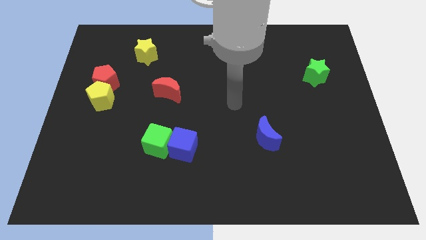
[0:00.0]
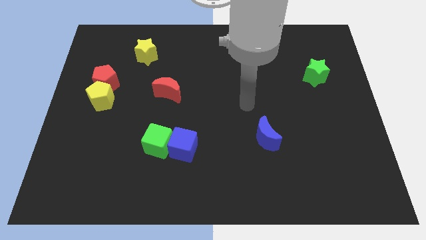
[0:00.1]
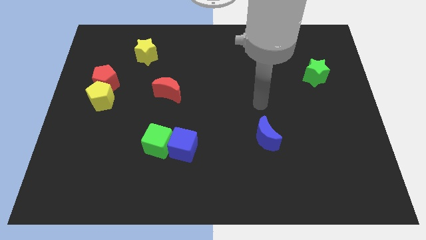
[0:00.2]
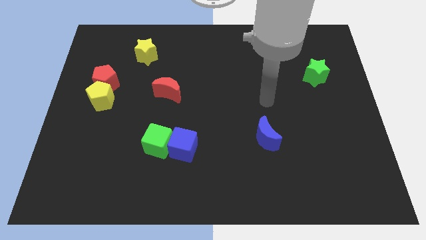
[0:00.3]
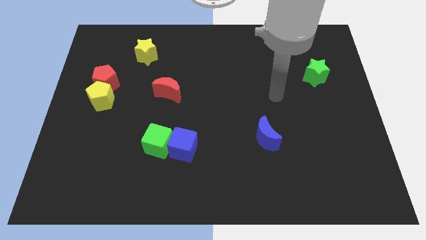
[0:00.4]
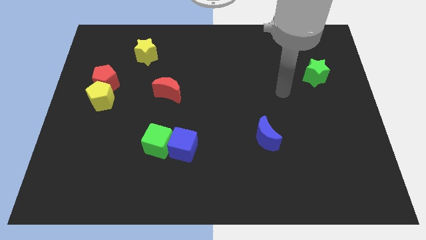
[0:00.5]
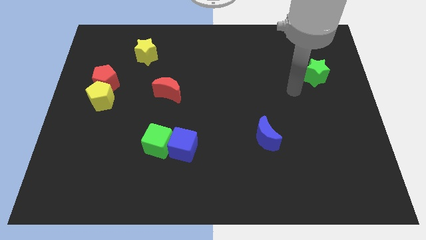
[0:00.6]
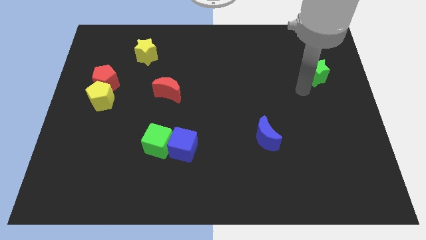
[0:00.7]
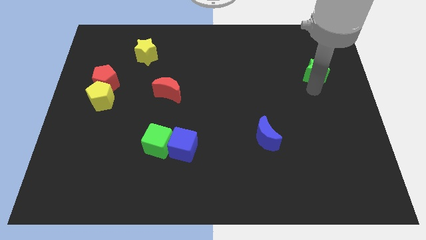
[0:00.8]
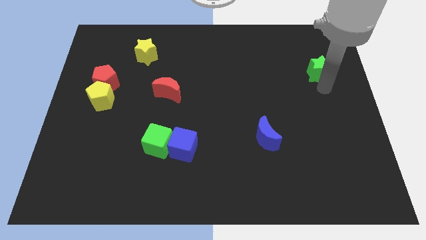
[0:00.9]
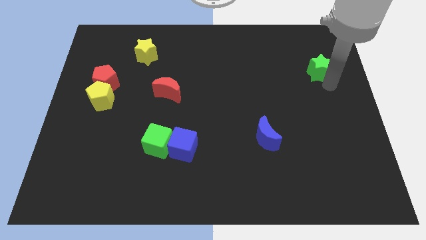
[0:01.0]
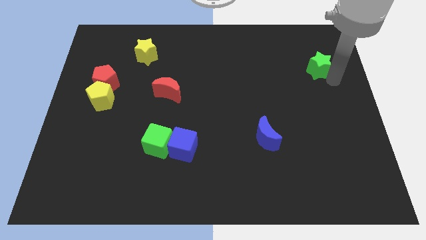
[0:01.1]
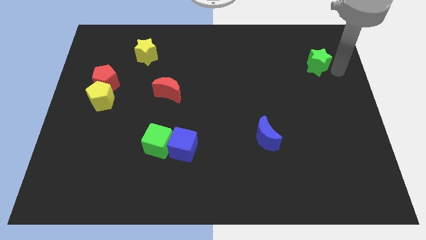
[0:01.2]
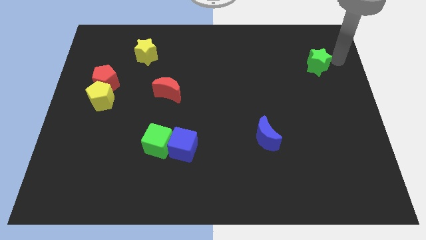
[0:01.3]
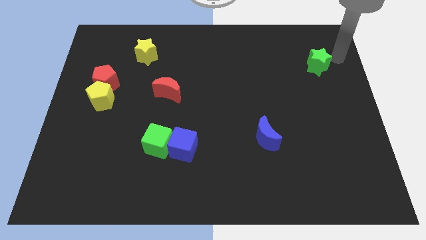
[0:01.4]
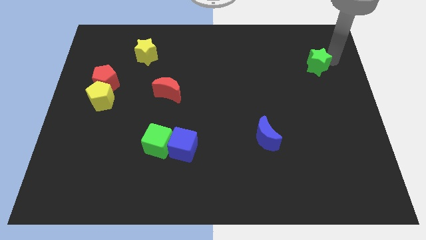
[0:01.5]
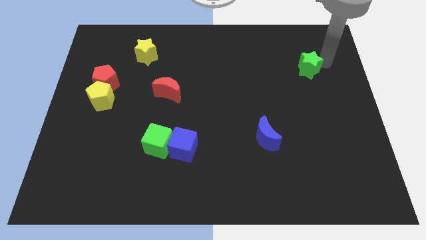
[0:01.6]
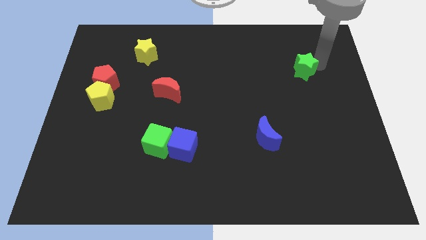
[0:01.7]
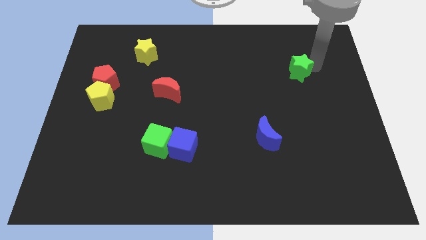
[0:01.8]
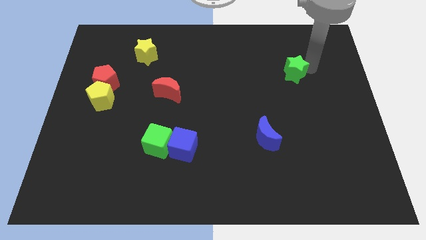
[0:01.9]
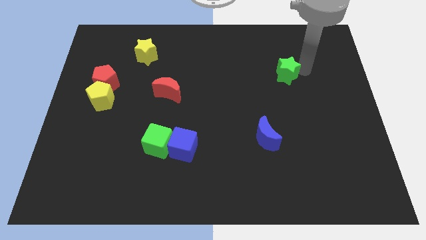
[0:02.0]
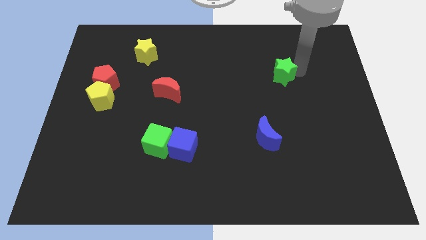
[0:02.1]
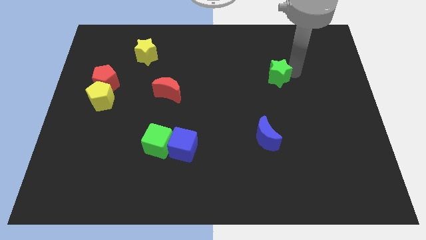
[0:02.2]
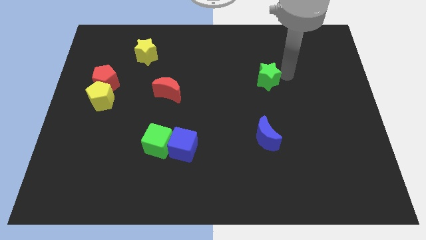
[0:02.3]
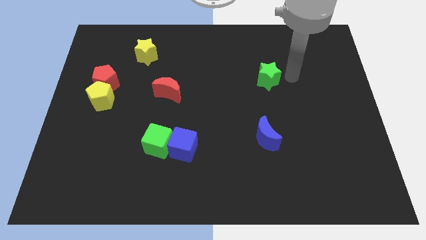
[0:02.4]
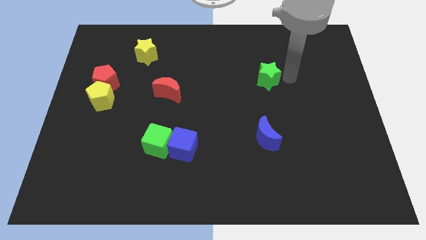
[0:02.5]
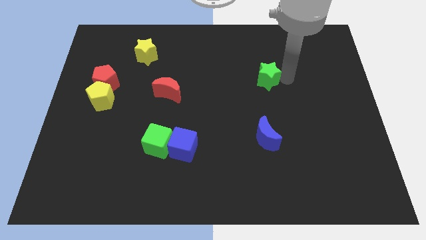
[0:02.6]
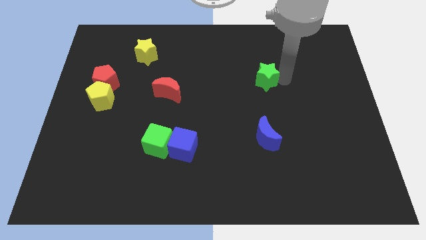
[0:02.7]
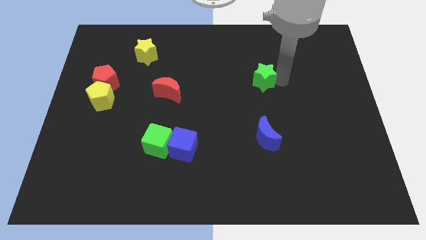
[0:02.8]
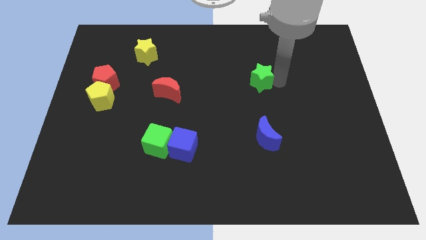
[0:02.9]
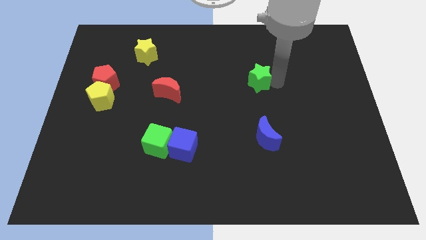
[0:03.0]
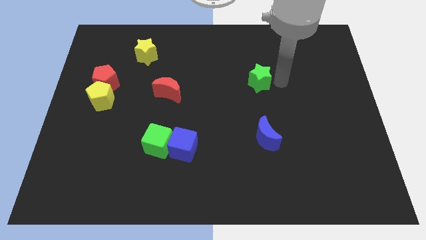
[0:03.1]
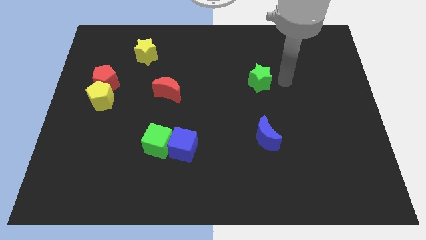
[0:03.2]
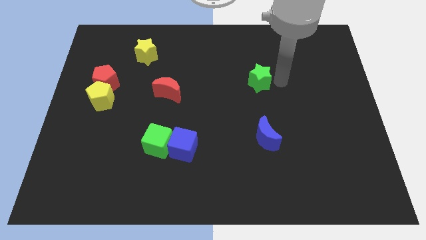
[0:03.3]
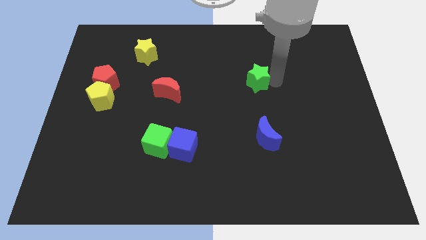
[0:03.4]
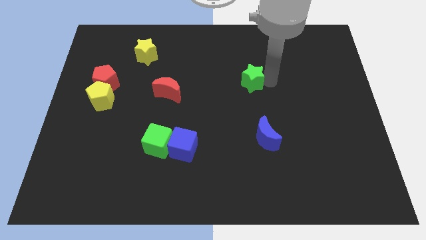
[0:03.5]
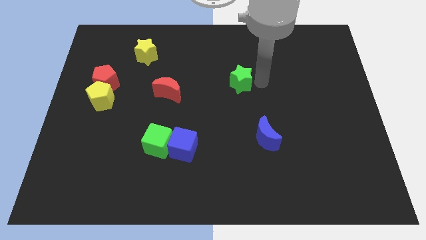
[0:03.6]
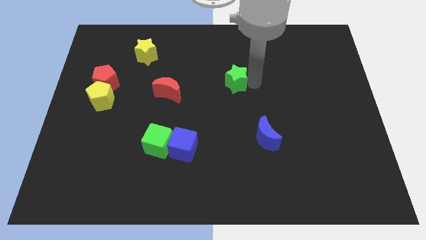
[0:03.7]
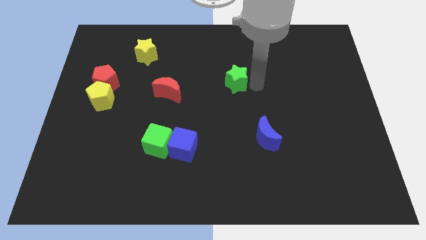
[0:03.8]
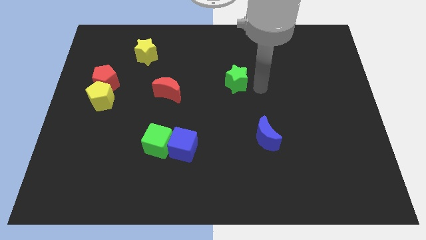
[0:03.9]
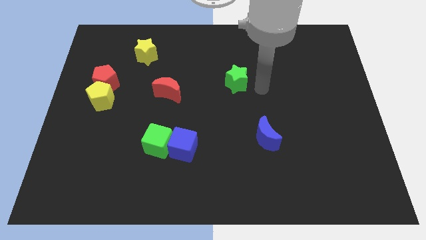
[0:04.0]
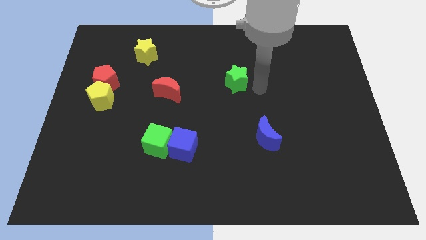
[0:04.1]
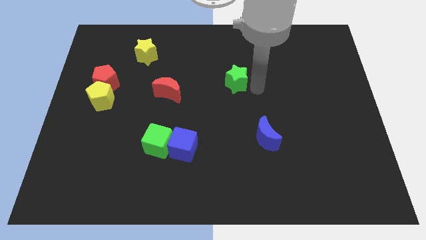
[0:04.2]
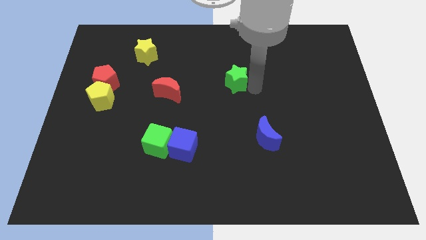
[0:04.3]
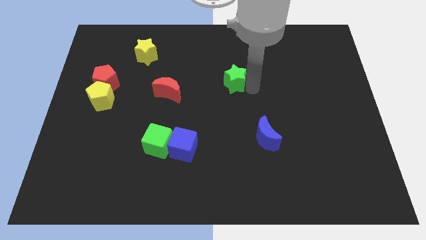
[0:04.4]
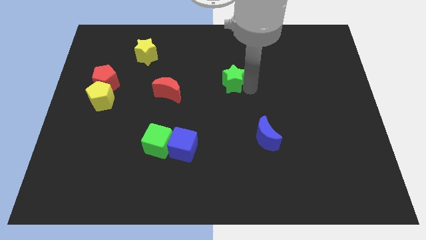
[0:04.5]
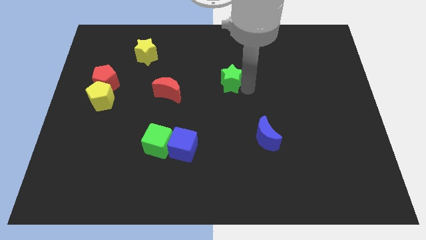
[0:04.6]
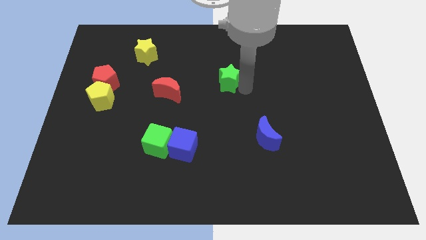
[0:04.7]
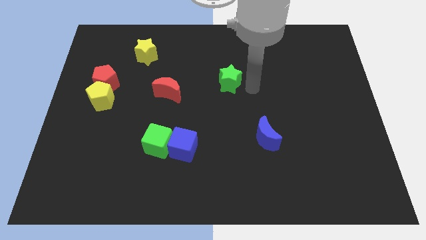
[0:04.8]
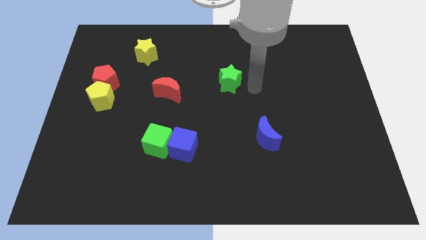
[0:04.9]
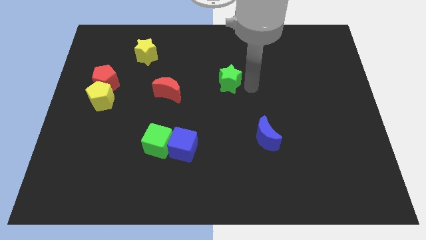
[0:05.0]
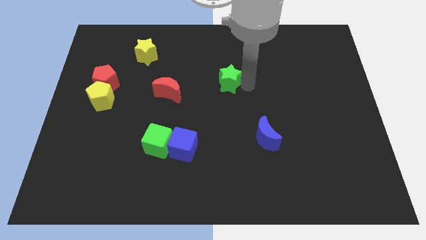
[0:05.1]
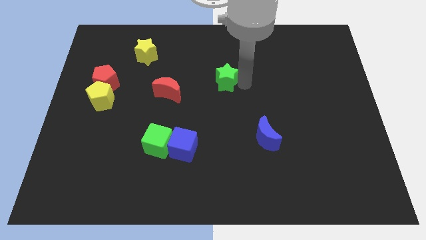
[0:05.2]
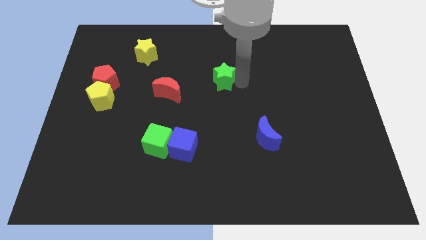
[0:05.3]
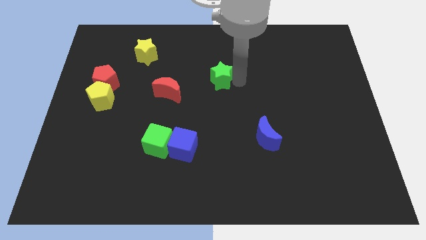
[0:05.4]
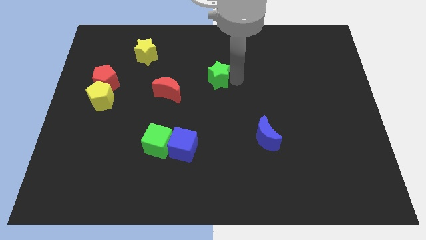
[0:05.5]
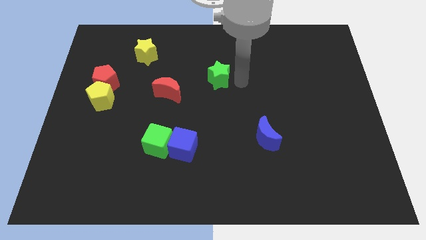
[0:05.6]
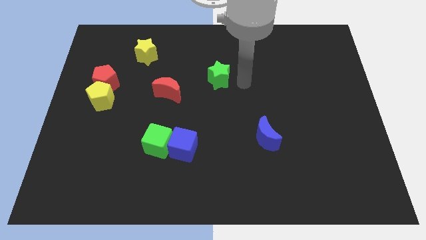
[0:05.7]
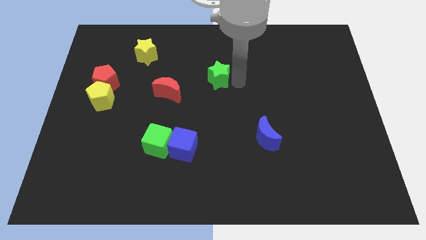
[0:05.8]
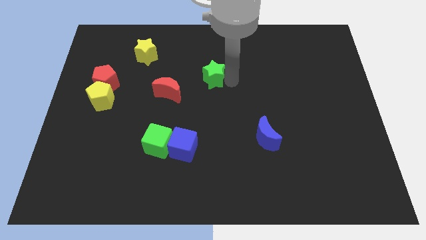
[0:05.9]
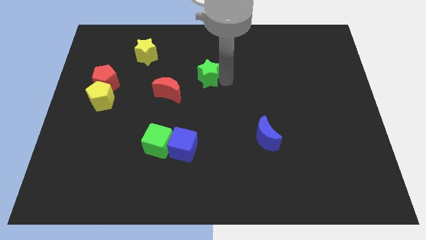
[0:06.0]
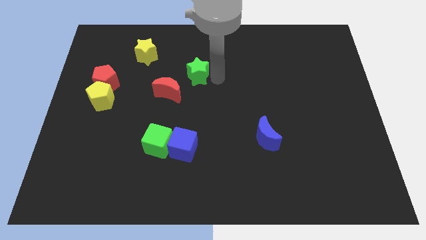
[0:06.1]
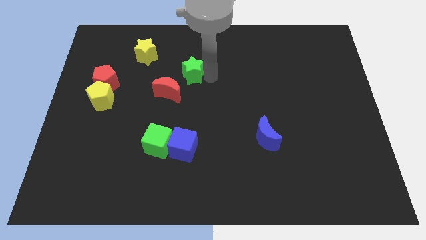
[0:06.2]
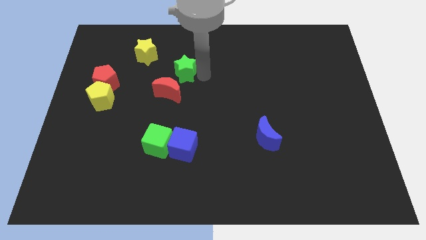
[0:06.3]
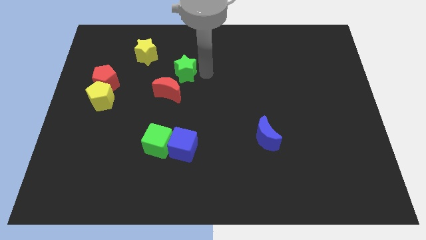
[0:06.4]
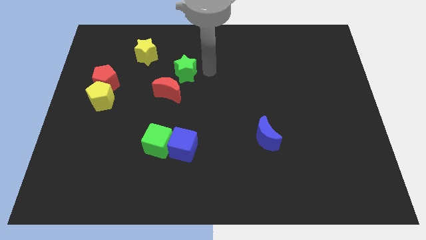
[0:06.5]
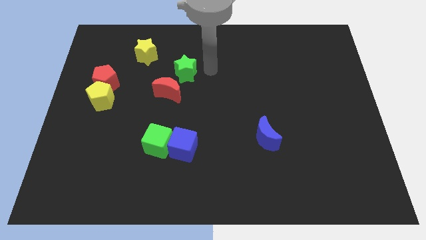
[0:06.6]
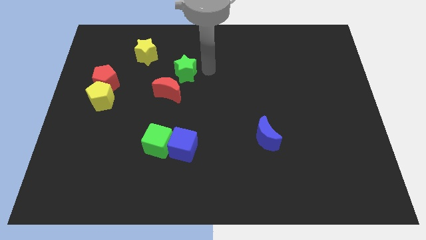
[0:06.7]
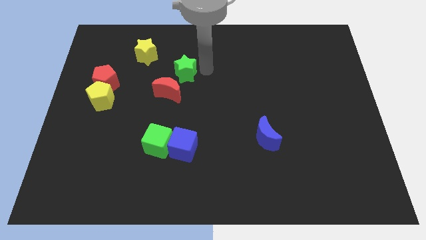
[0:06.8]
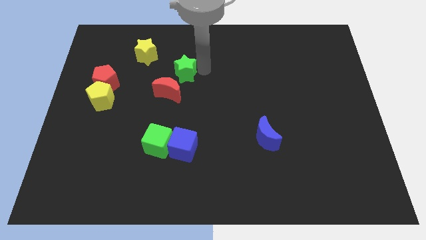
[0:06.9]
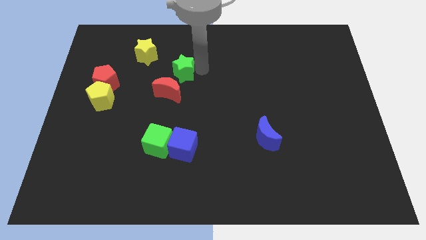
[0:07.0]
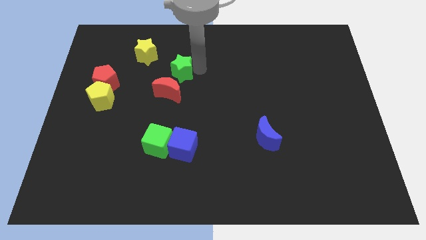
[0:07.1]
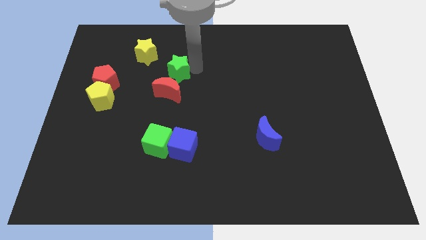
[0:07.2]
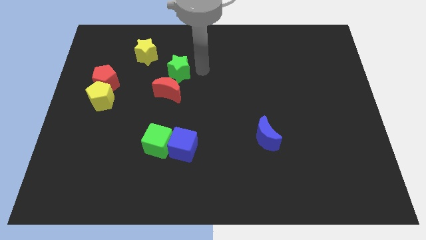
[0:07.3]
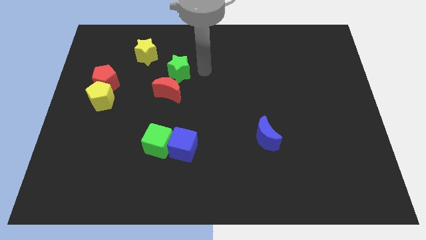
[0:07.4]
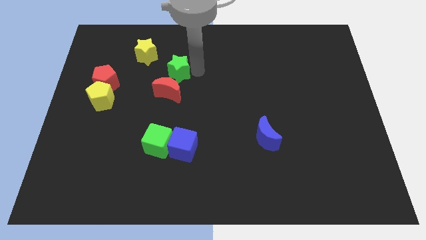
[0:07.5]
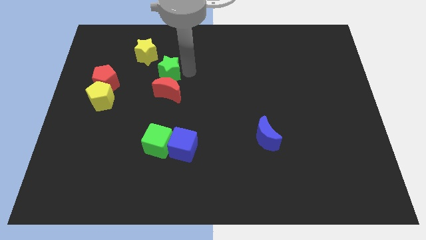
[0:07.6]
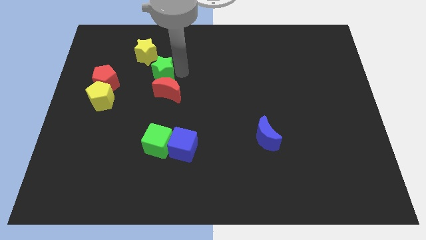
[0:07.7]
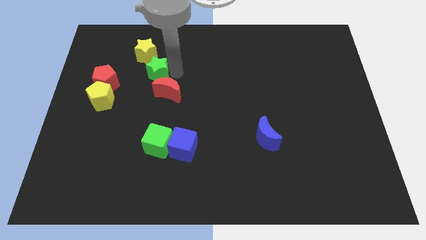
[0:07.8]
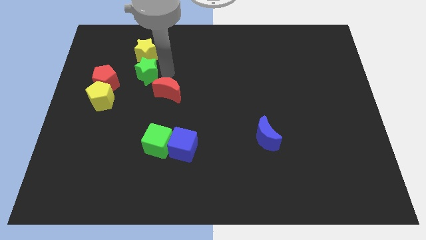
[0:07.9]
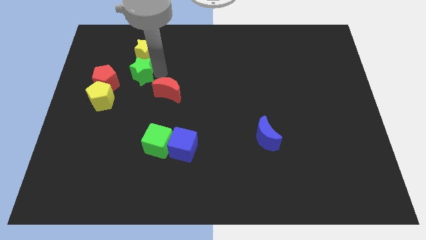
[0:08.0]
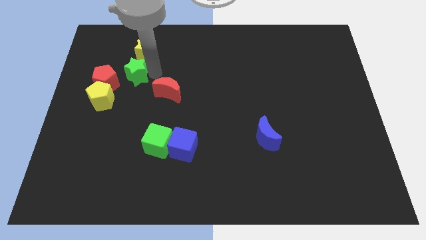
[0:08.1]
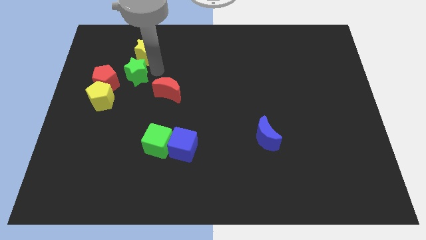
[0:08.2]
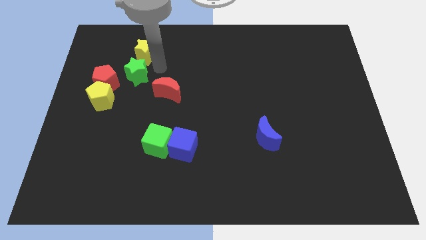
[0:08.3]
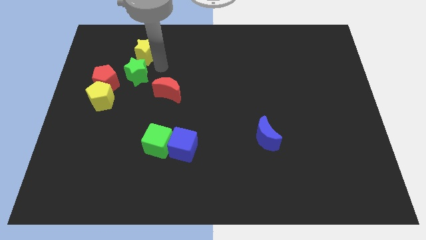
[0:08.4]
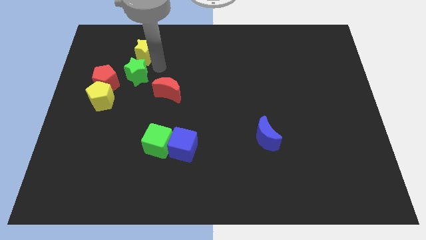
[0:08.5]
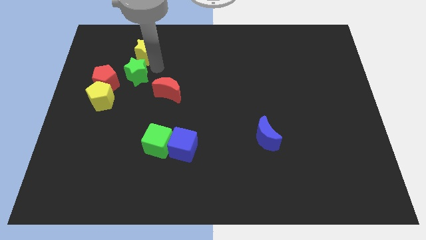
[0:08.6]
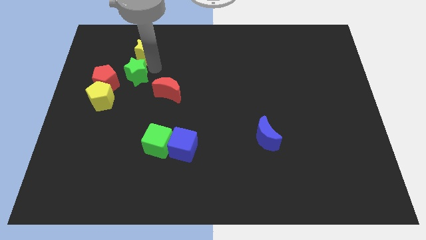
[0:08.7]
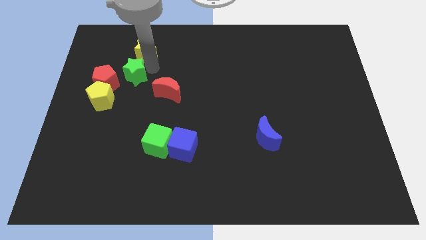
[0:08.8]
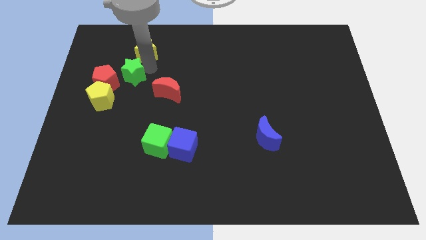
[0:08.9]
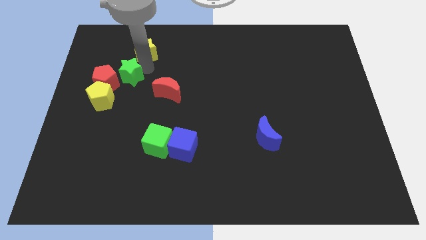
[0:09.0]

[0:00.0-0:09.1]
slide the green star close to the red pentagon
